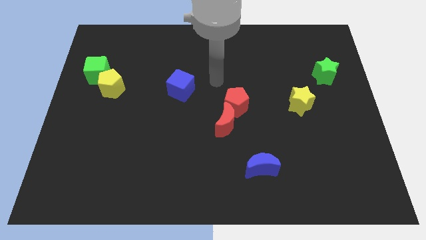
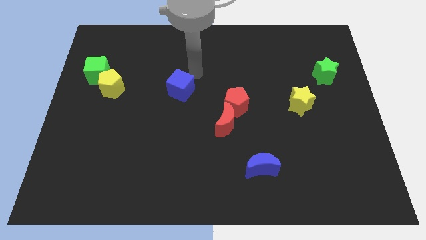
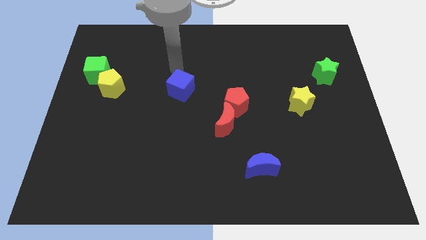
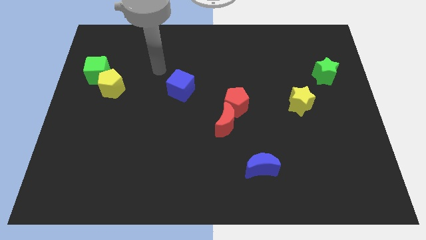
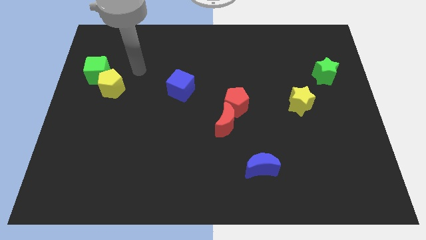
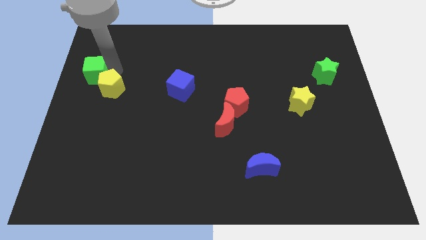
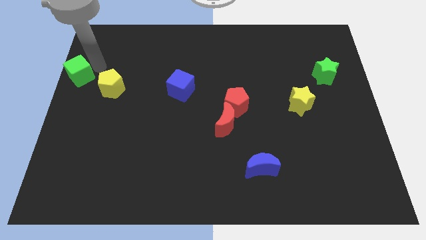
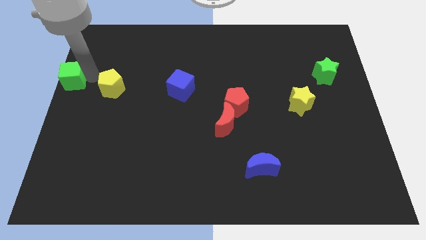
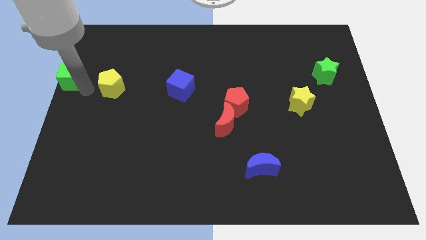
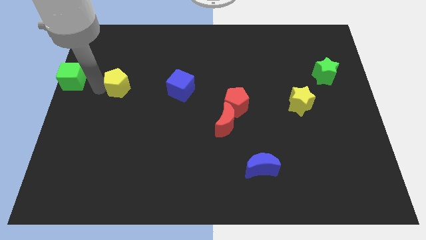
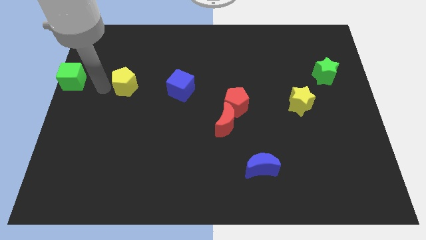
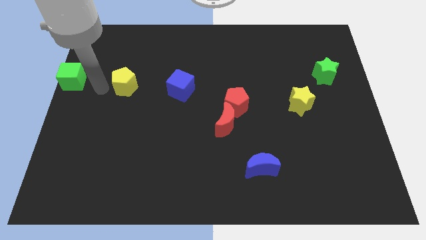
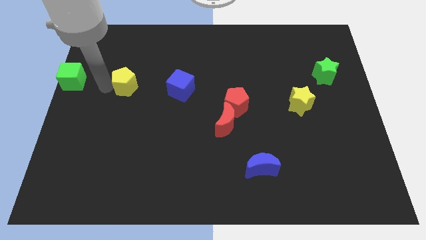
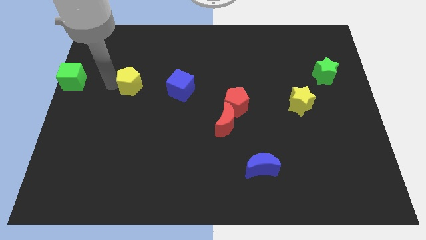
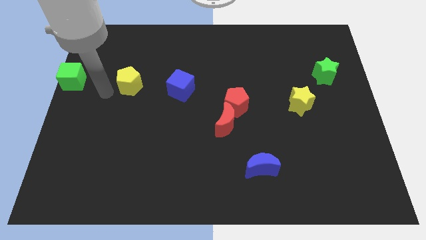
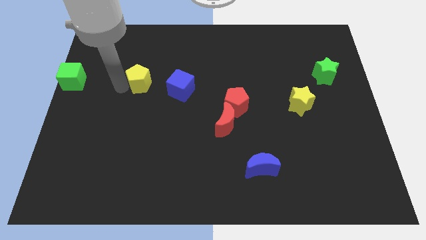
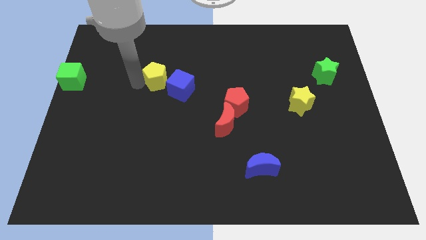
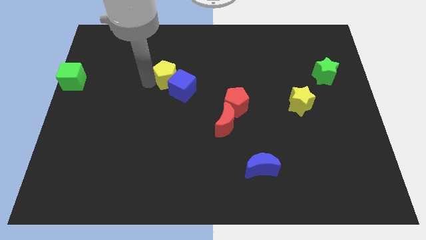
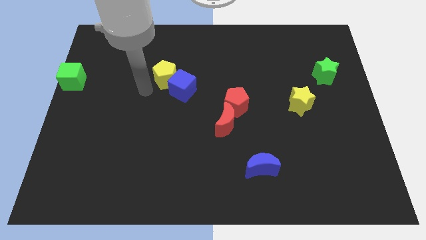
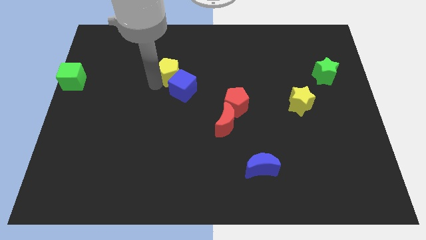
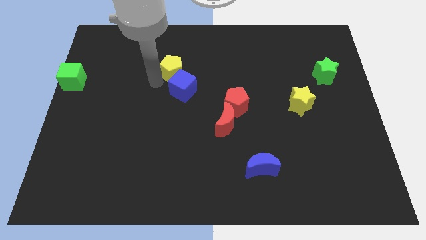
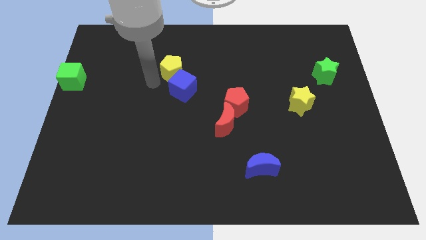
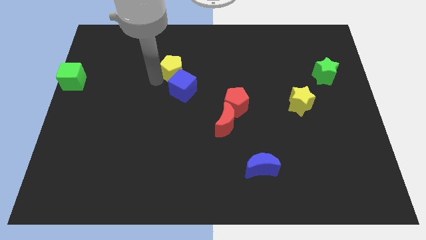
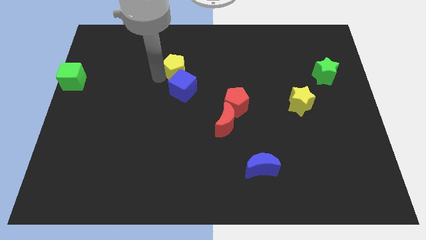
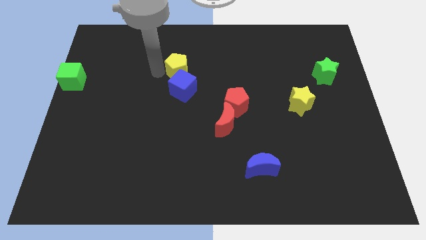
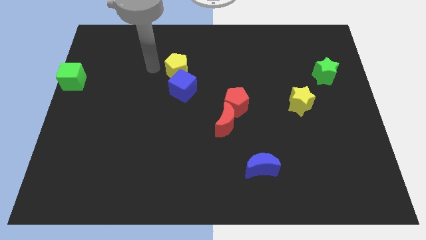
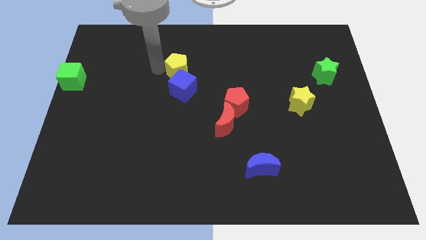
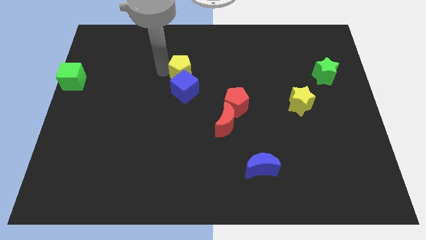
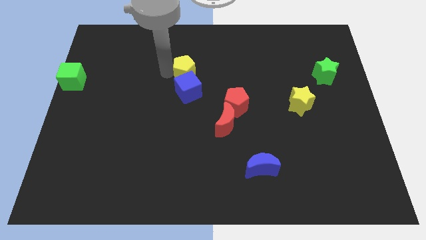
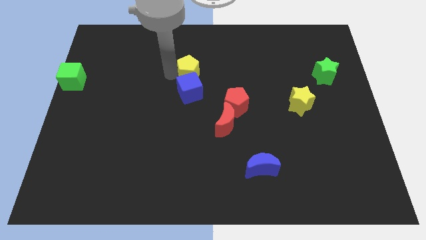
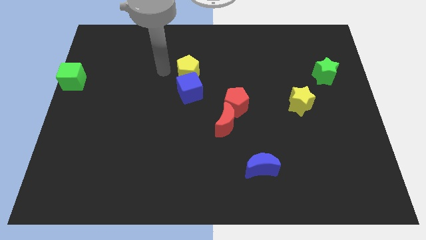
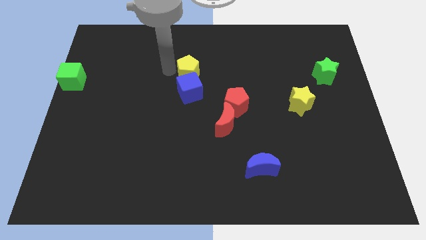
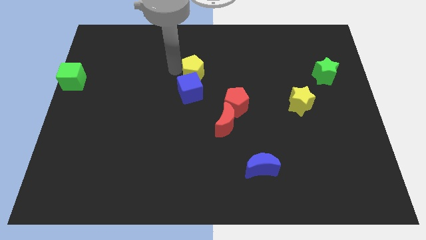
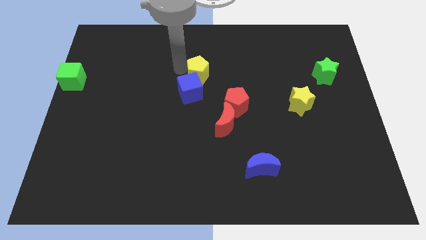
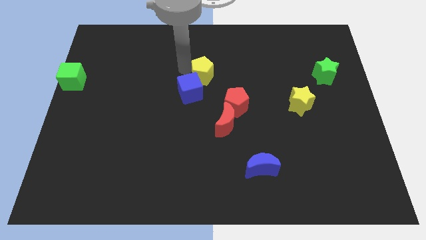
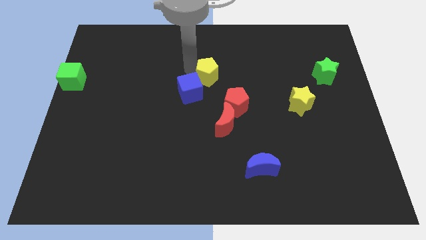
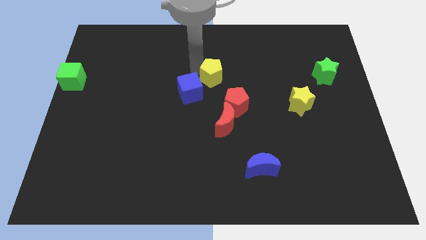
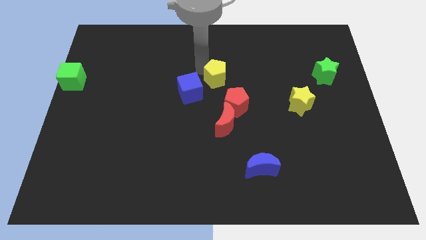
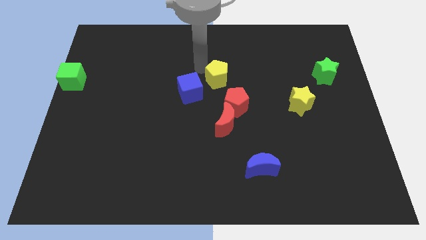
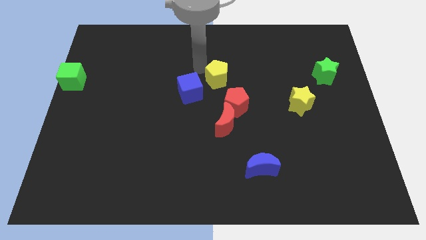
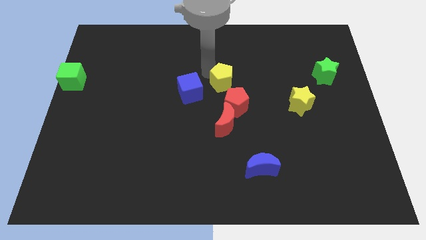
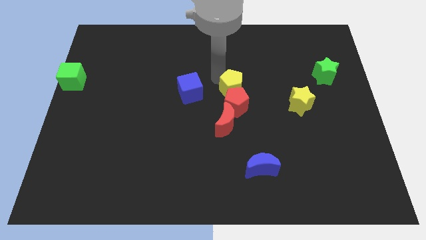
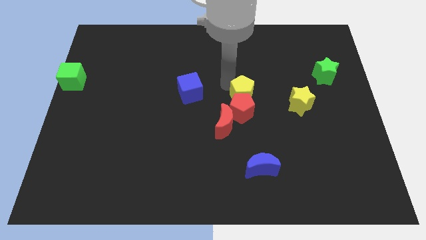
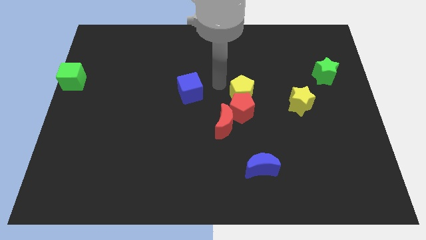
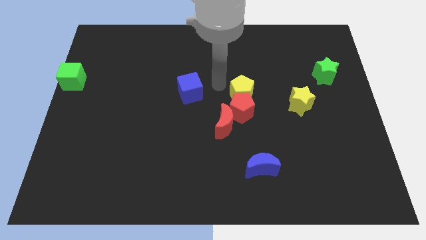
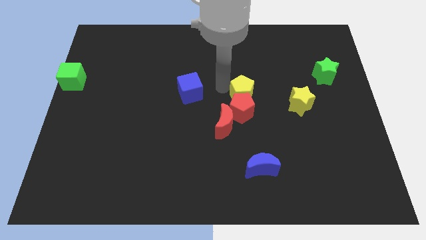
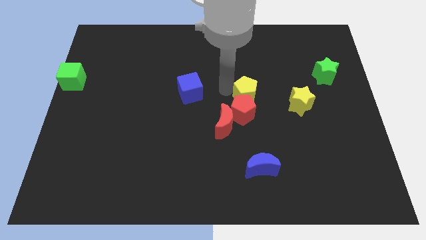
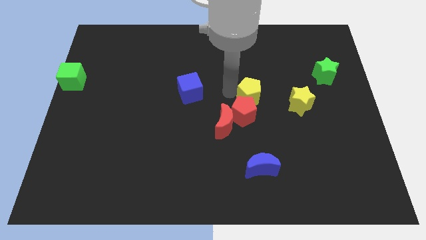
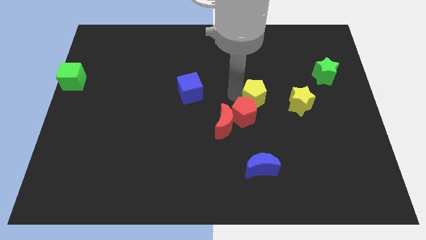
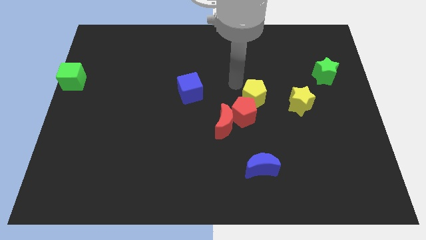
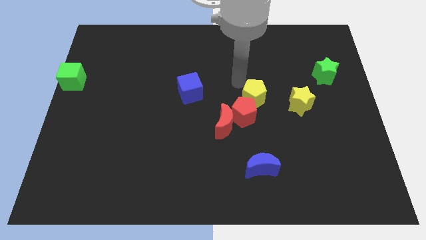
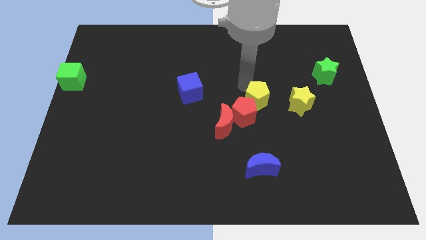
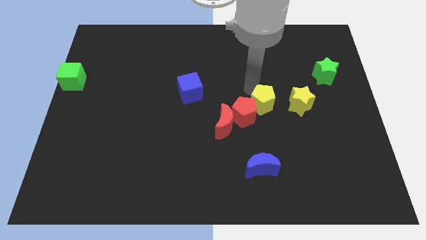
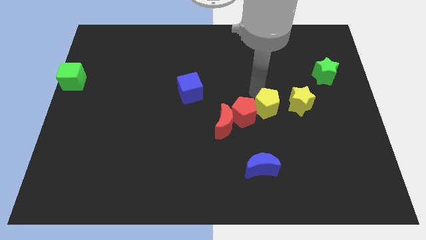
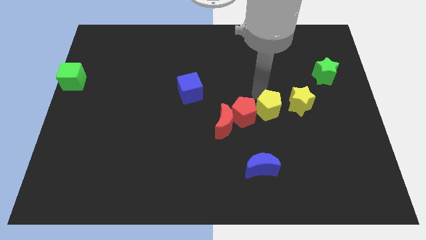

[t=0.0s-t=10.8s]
push the yellow pentagon to the bottom left side of the yellow star

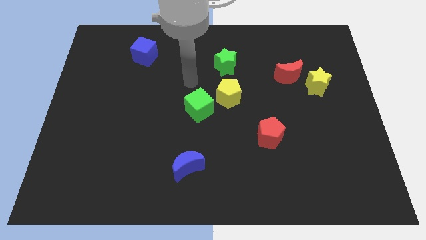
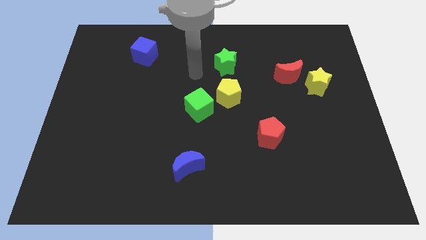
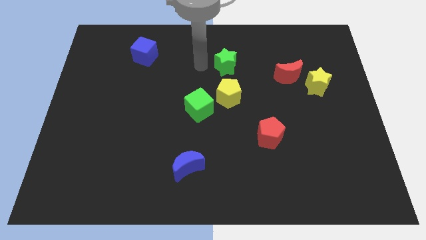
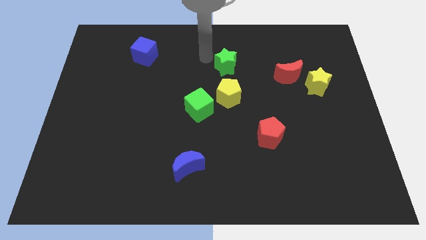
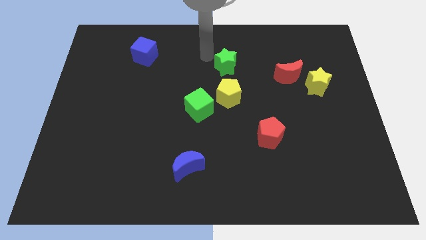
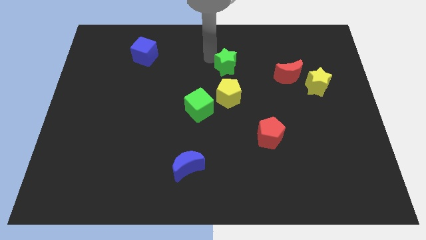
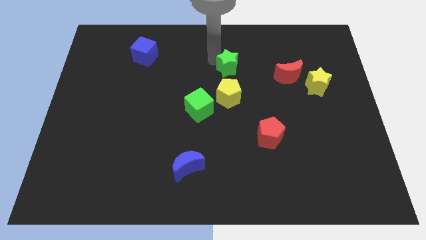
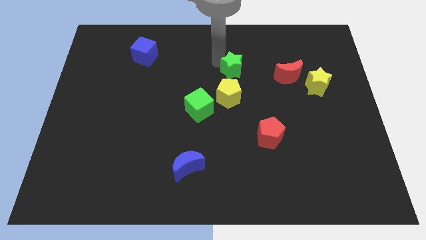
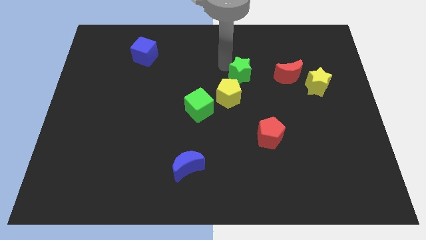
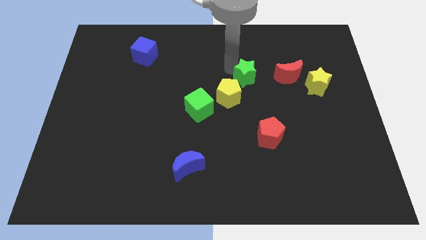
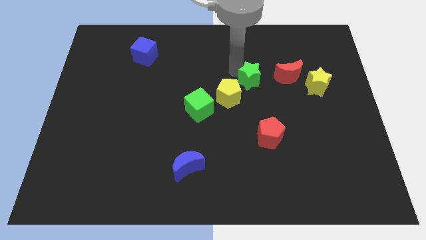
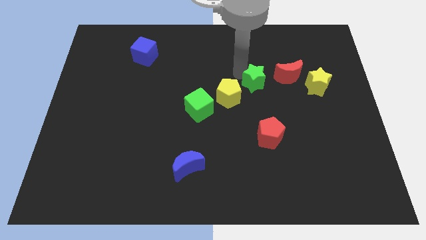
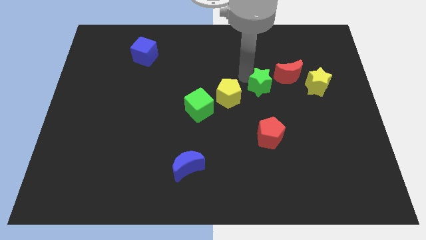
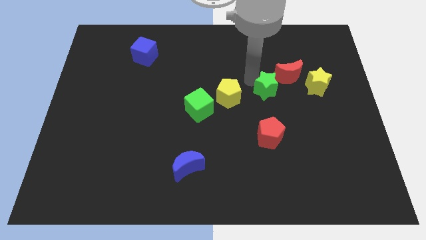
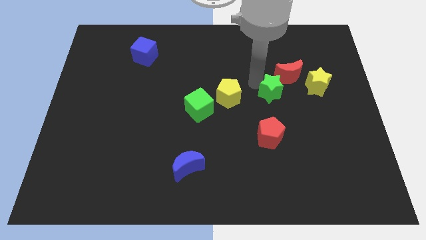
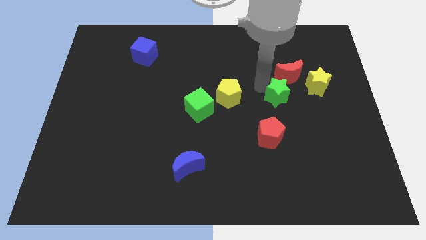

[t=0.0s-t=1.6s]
move the green star to the bottom left of the yellow star
